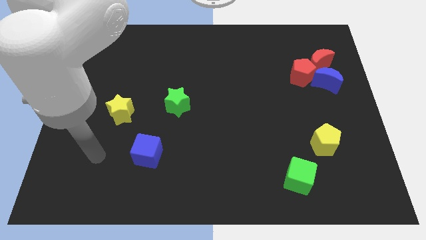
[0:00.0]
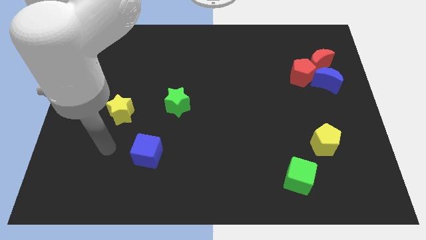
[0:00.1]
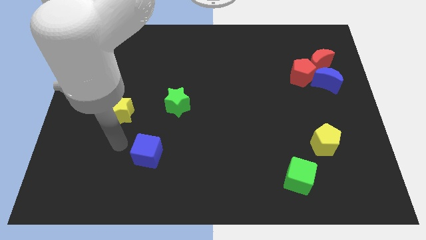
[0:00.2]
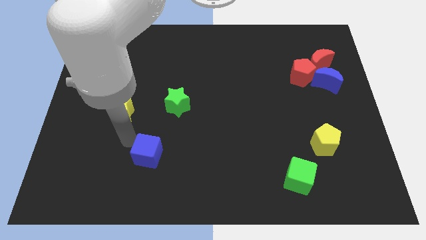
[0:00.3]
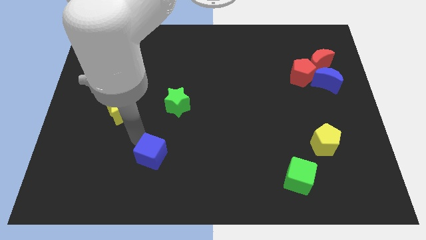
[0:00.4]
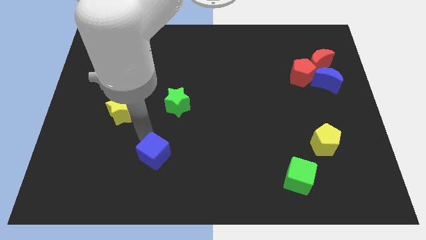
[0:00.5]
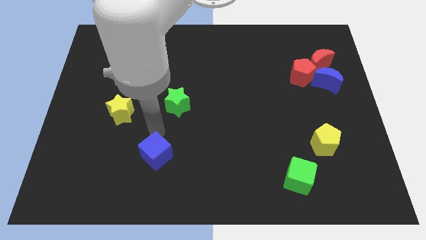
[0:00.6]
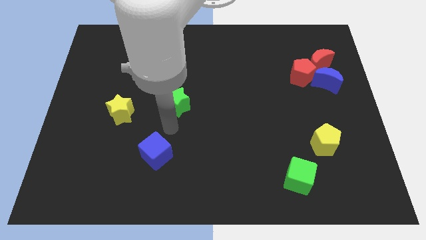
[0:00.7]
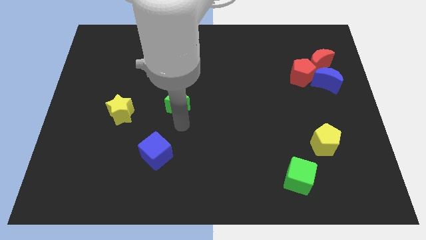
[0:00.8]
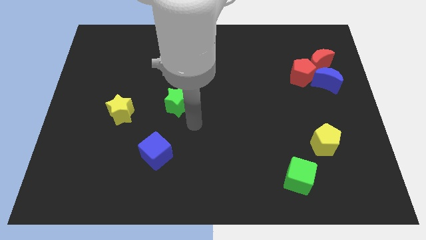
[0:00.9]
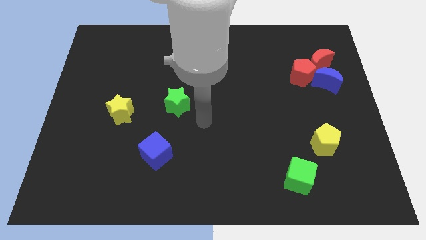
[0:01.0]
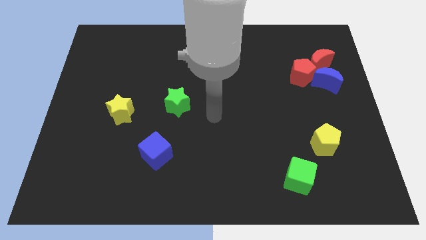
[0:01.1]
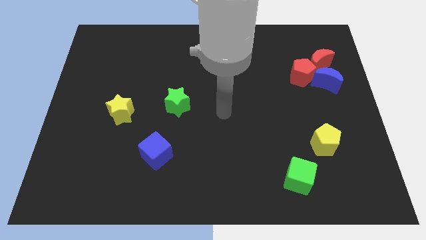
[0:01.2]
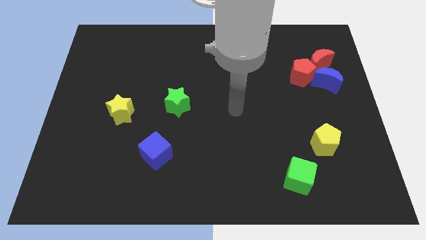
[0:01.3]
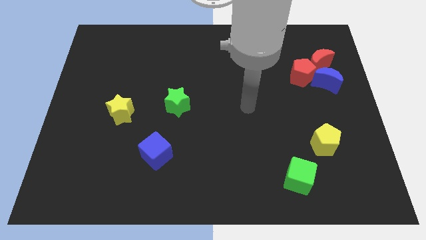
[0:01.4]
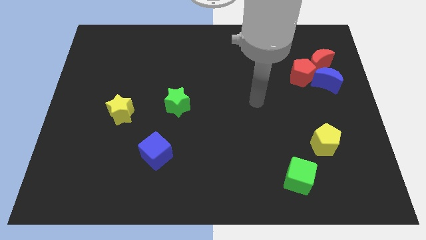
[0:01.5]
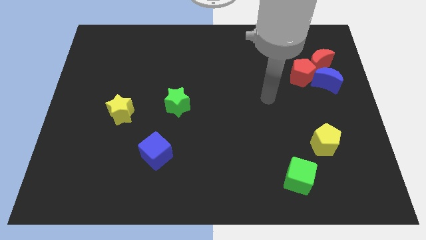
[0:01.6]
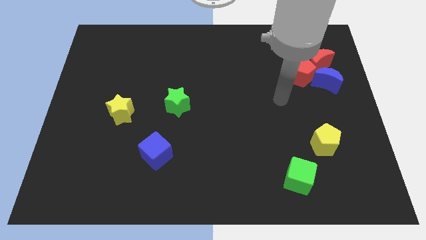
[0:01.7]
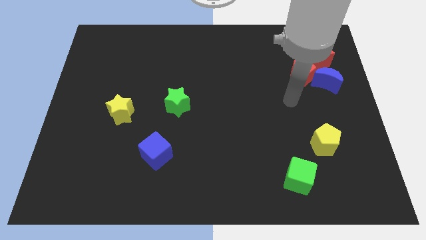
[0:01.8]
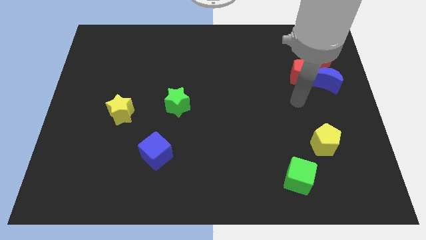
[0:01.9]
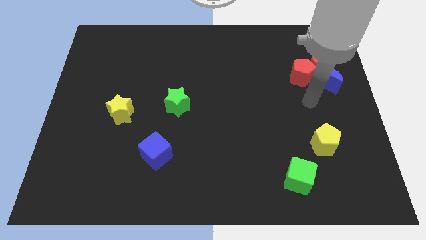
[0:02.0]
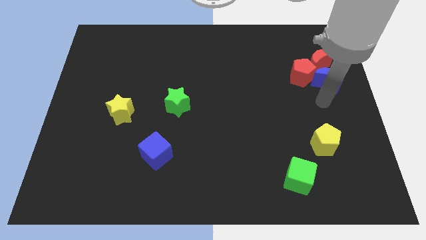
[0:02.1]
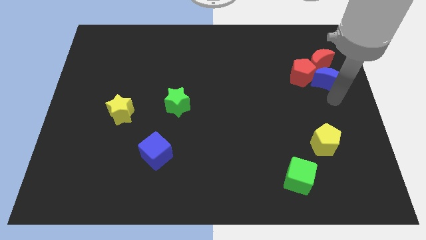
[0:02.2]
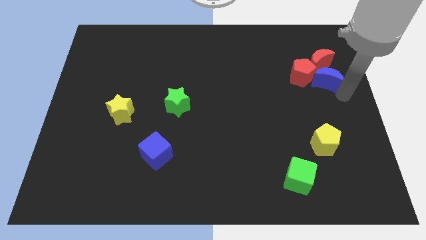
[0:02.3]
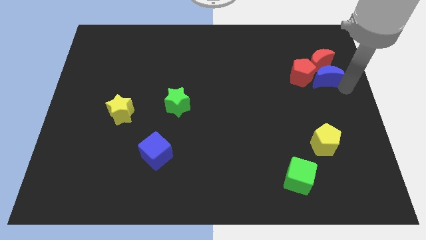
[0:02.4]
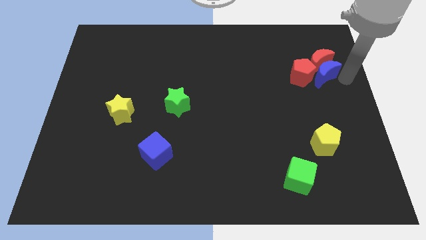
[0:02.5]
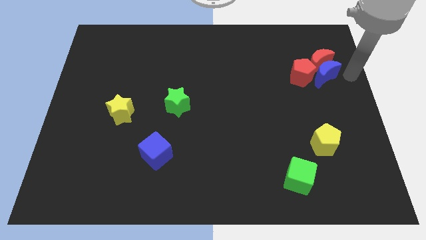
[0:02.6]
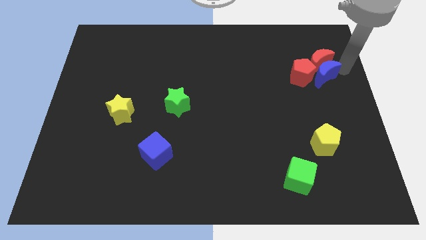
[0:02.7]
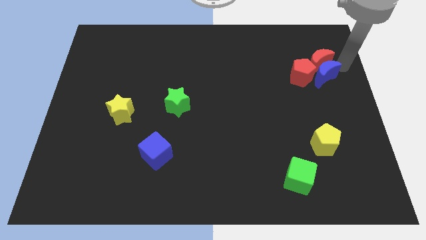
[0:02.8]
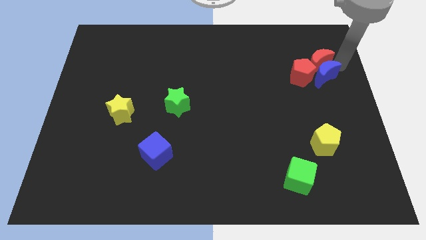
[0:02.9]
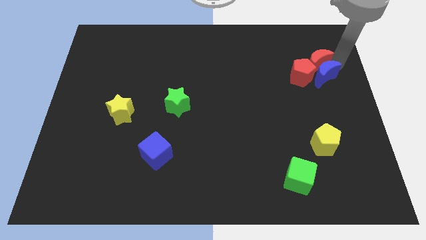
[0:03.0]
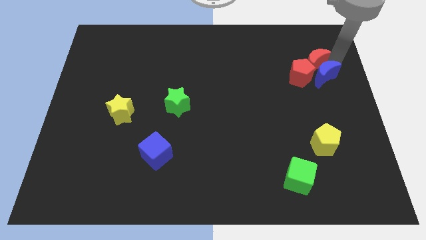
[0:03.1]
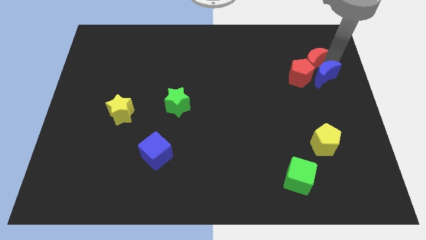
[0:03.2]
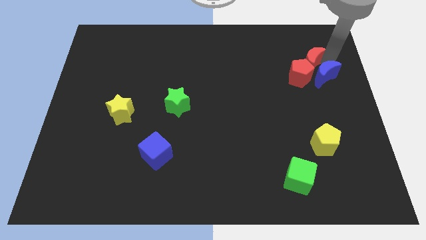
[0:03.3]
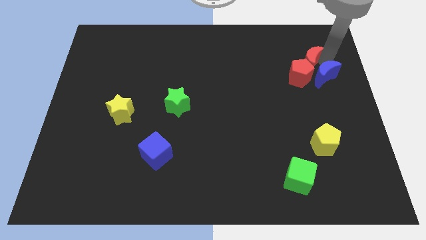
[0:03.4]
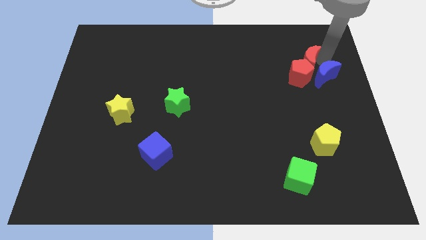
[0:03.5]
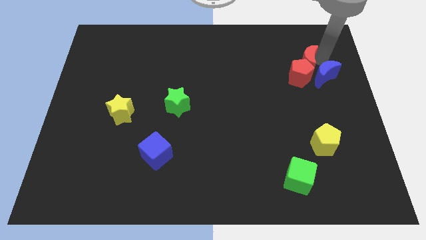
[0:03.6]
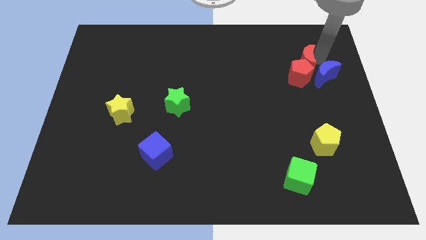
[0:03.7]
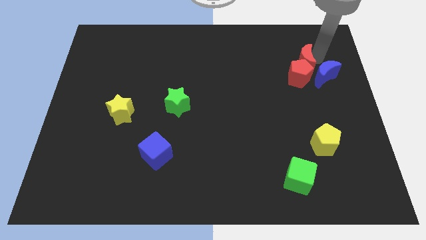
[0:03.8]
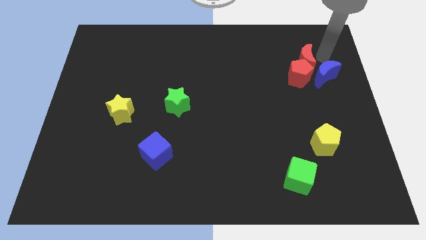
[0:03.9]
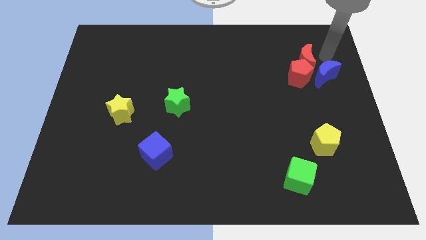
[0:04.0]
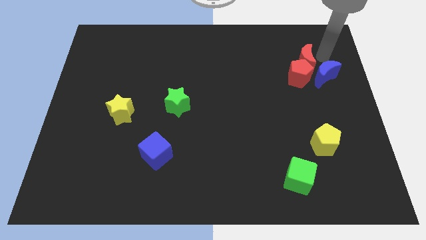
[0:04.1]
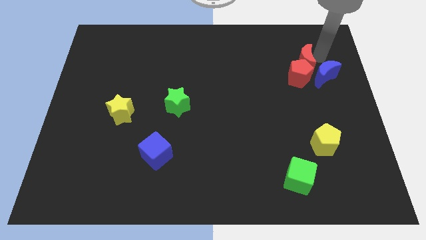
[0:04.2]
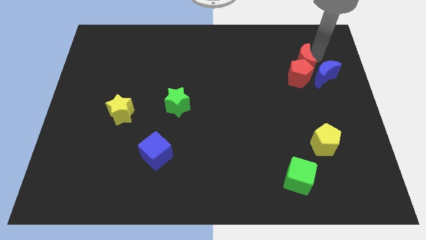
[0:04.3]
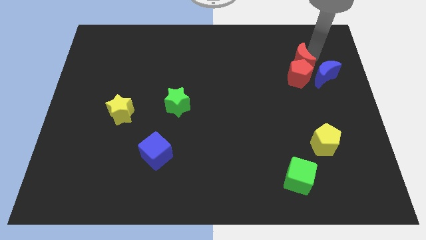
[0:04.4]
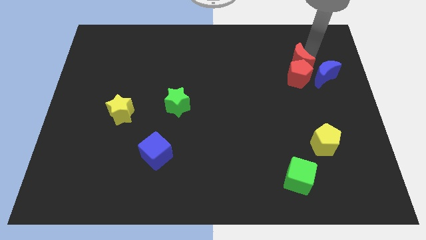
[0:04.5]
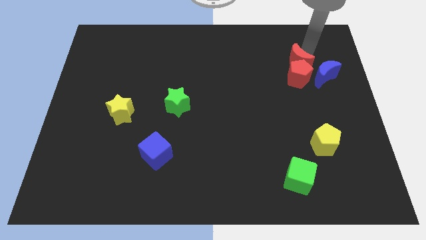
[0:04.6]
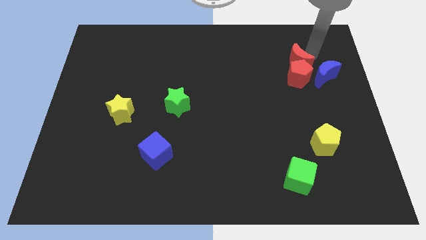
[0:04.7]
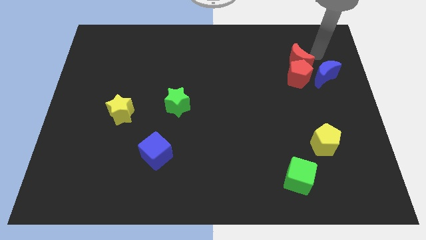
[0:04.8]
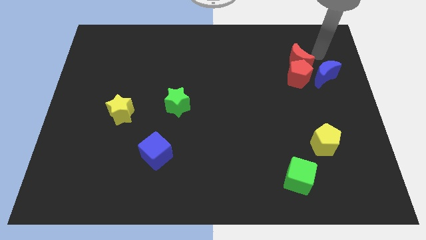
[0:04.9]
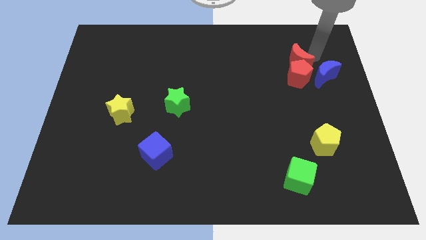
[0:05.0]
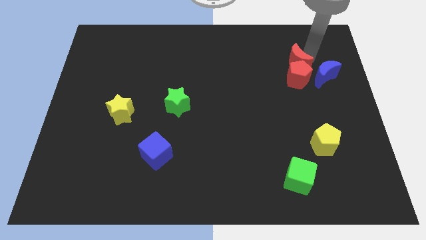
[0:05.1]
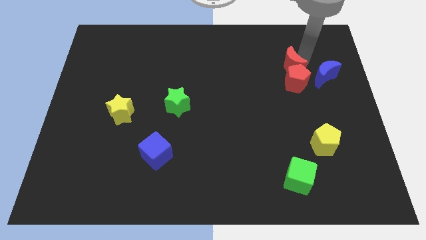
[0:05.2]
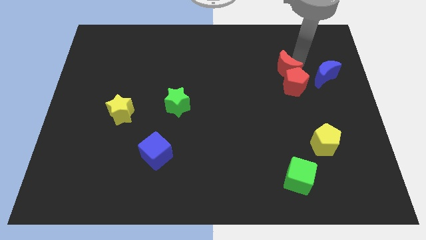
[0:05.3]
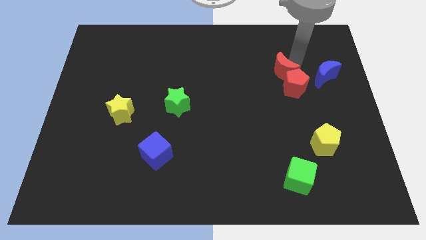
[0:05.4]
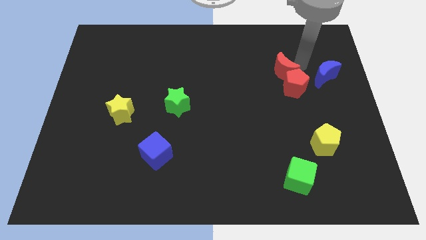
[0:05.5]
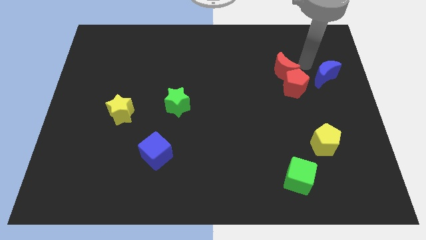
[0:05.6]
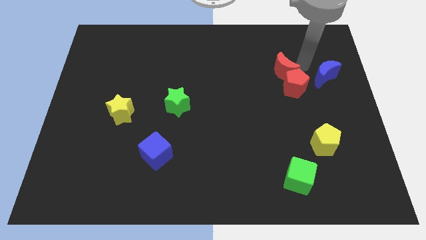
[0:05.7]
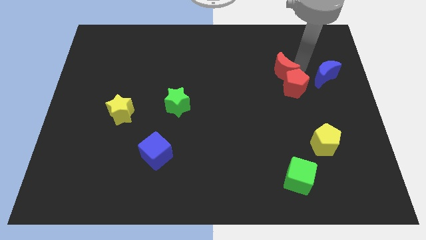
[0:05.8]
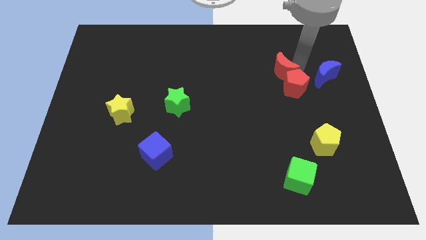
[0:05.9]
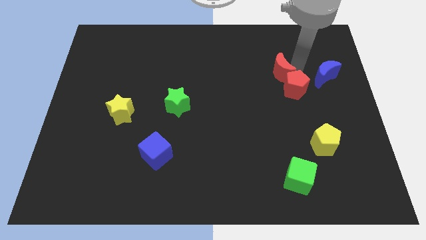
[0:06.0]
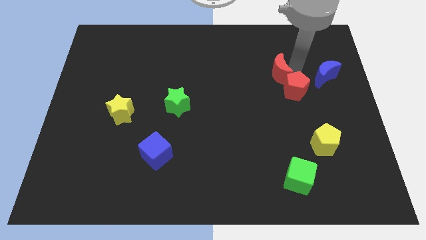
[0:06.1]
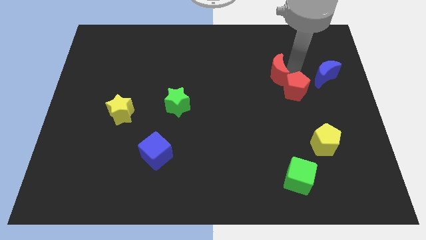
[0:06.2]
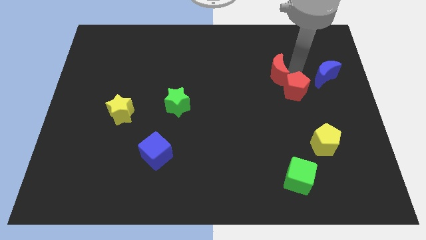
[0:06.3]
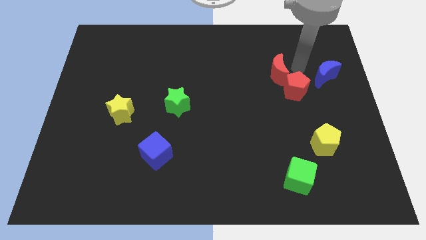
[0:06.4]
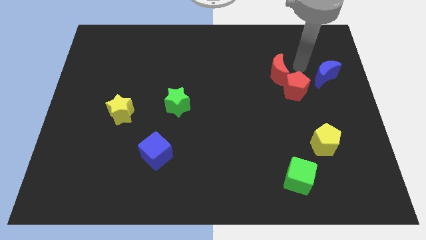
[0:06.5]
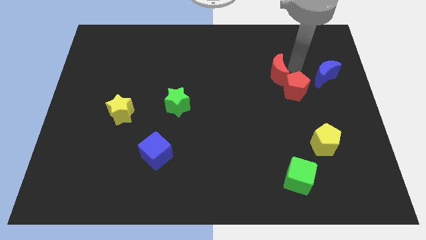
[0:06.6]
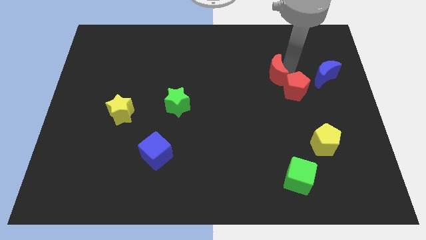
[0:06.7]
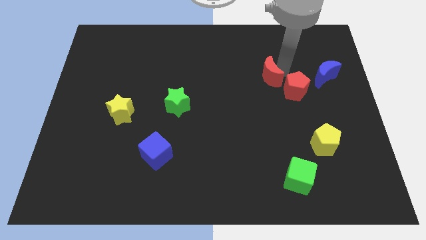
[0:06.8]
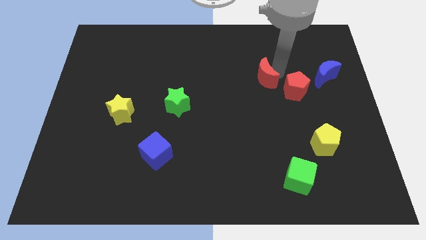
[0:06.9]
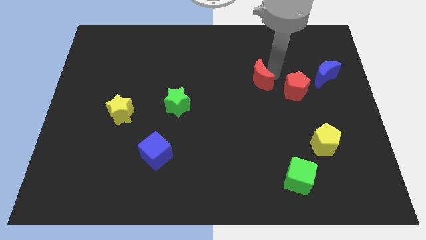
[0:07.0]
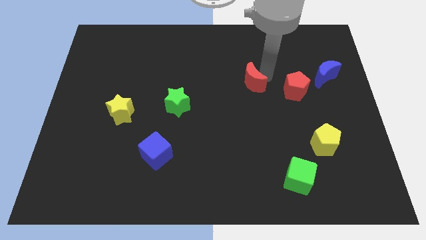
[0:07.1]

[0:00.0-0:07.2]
move the red moon to the middle of the board
